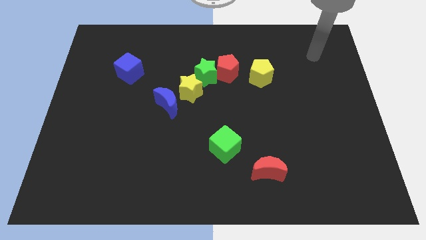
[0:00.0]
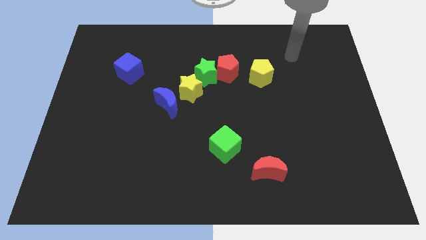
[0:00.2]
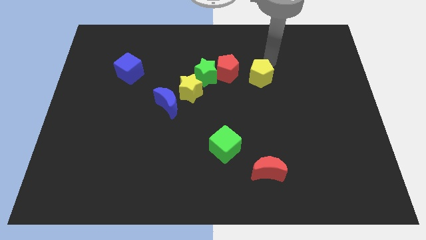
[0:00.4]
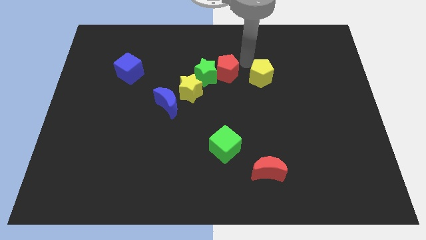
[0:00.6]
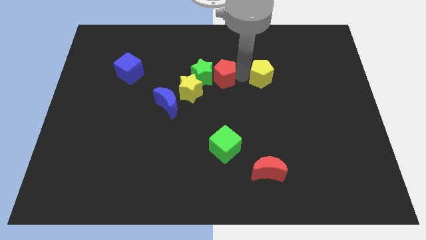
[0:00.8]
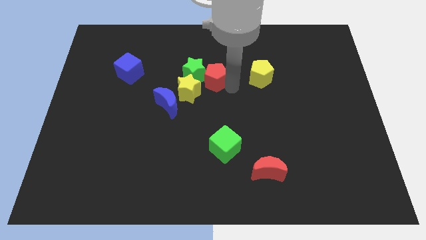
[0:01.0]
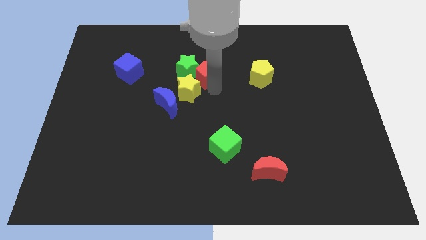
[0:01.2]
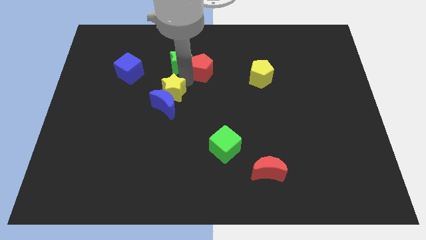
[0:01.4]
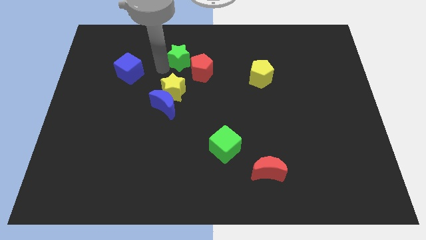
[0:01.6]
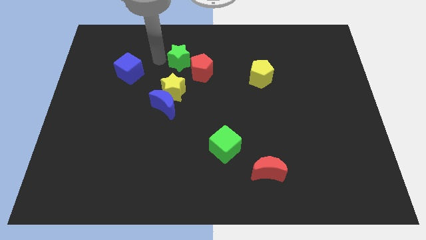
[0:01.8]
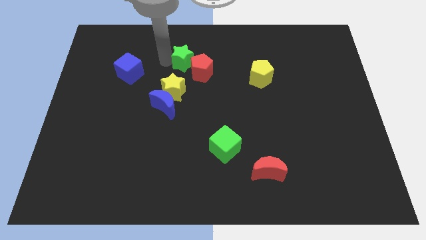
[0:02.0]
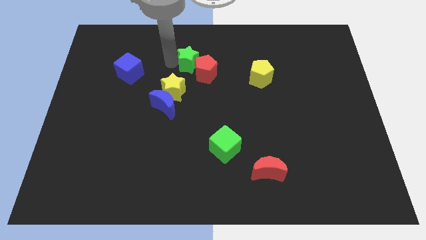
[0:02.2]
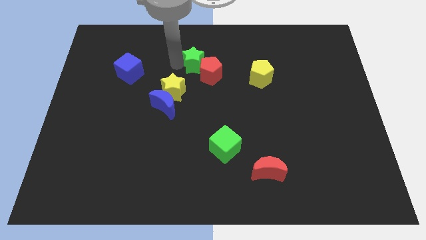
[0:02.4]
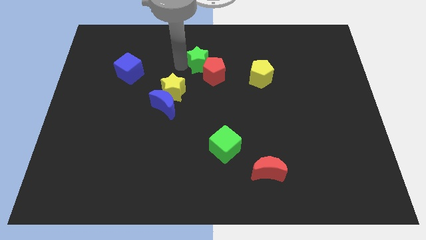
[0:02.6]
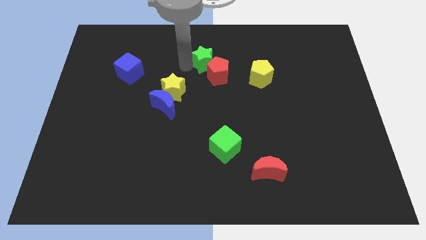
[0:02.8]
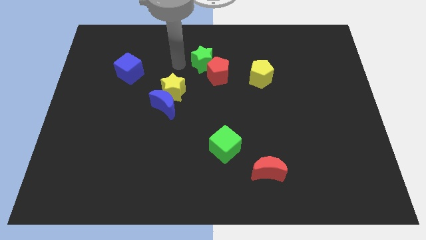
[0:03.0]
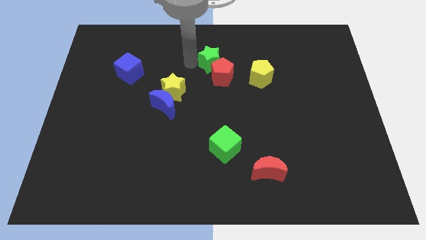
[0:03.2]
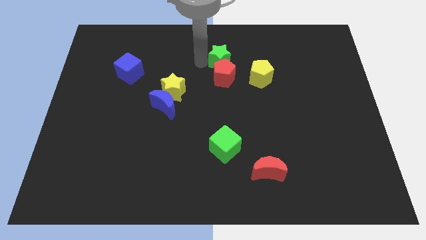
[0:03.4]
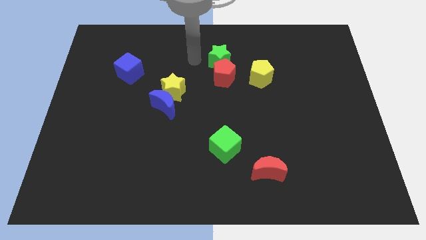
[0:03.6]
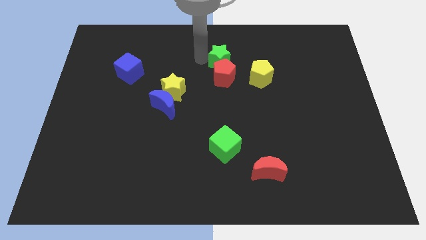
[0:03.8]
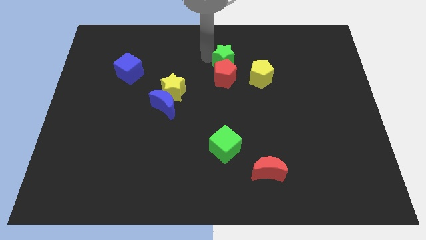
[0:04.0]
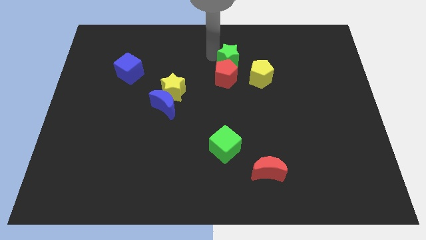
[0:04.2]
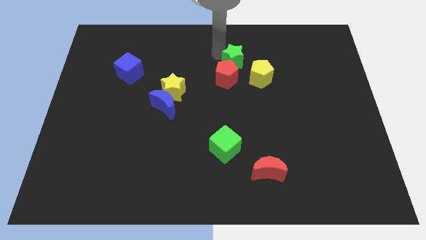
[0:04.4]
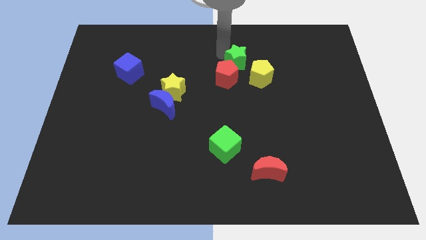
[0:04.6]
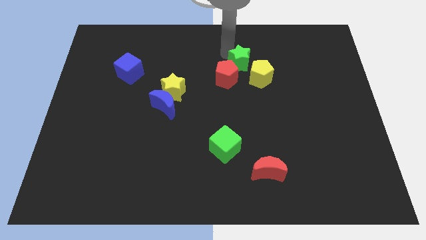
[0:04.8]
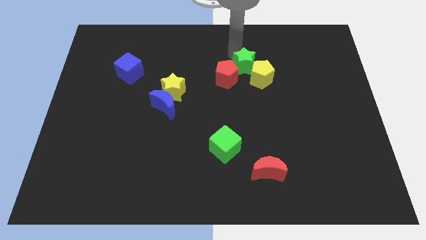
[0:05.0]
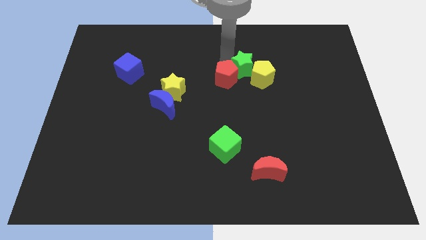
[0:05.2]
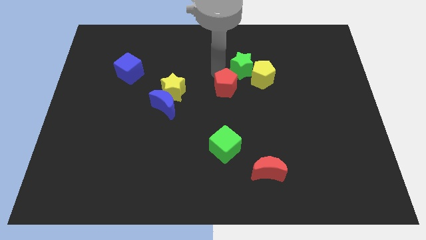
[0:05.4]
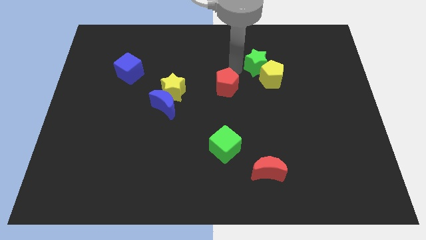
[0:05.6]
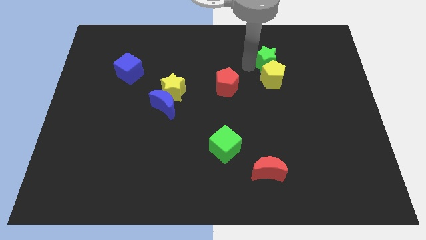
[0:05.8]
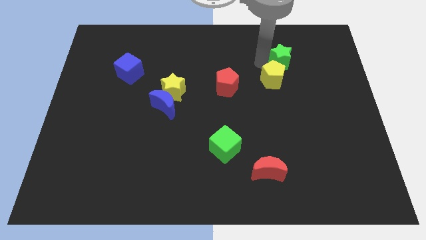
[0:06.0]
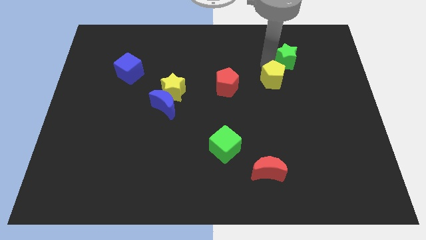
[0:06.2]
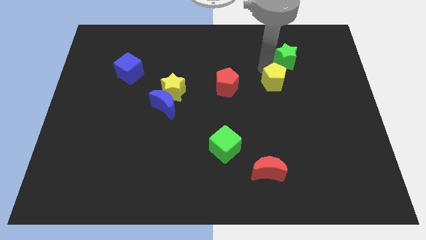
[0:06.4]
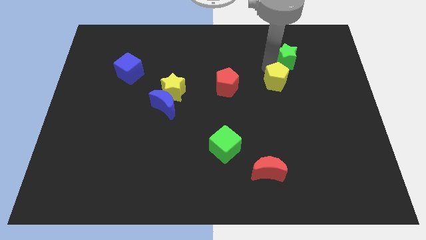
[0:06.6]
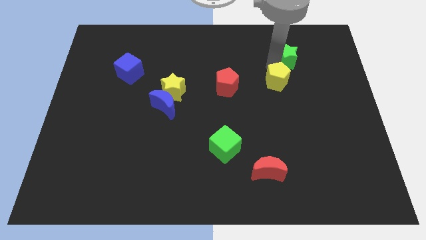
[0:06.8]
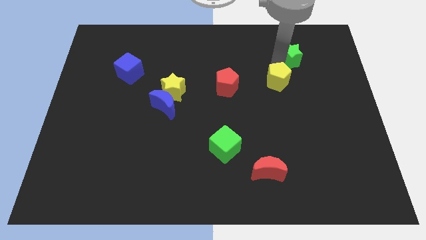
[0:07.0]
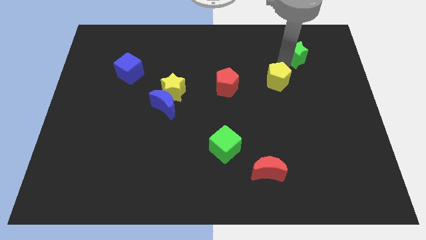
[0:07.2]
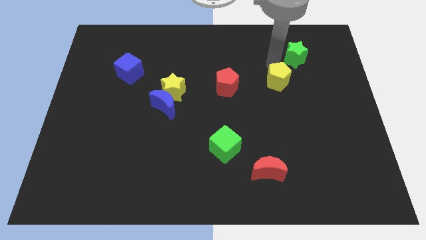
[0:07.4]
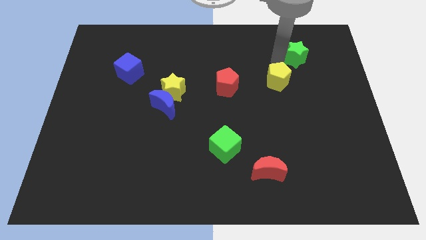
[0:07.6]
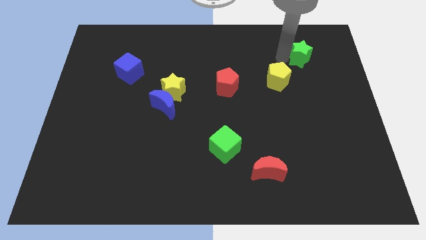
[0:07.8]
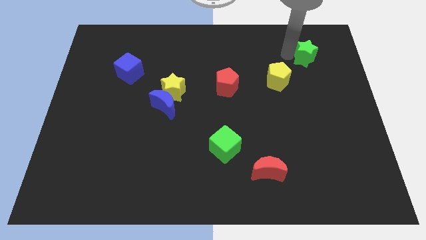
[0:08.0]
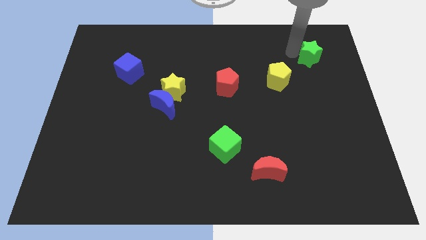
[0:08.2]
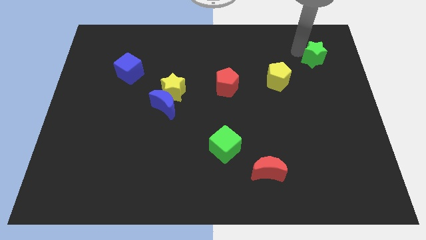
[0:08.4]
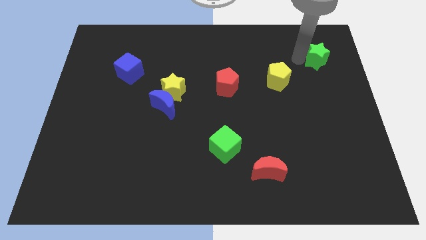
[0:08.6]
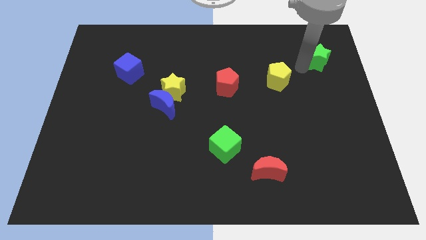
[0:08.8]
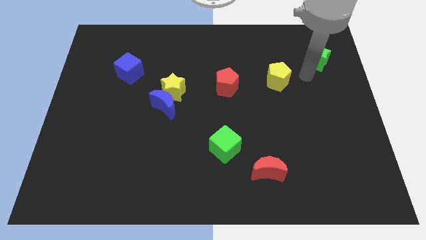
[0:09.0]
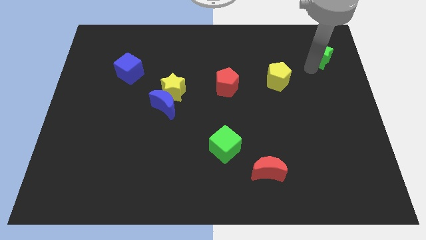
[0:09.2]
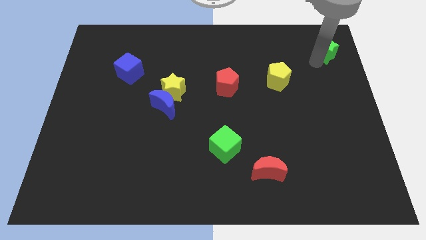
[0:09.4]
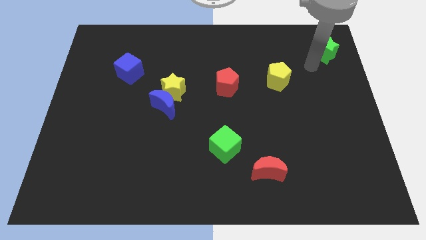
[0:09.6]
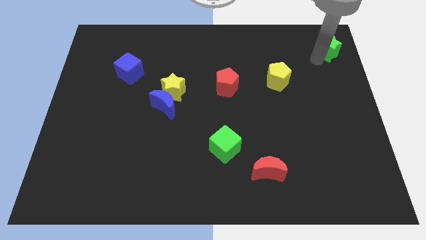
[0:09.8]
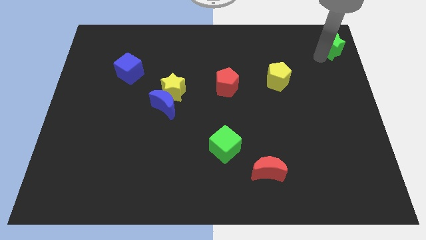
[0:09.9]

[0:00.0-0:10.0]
slide the green star to the top right
